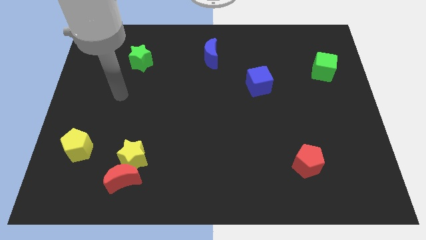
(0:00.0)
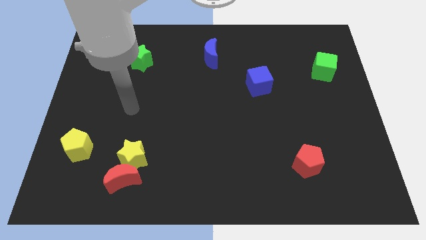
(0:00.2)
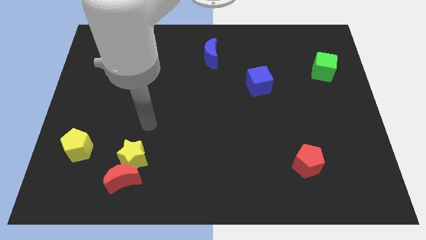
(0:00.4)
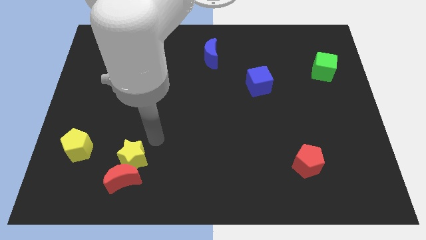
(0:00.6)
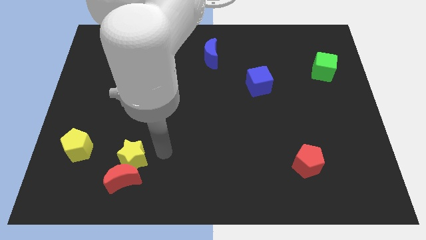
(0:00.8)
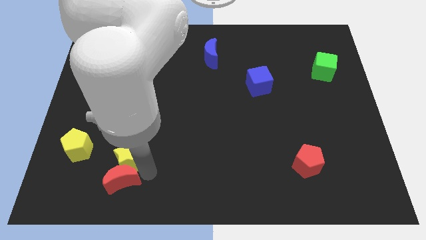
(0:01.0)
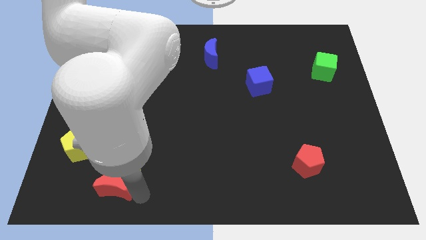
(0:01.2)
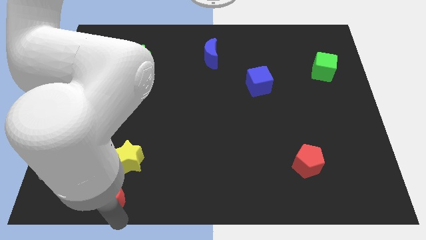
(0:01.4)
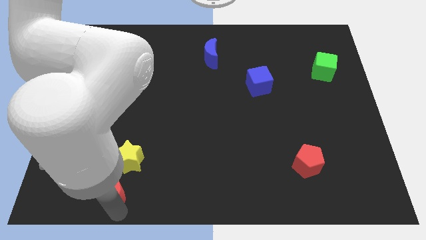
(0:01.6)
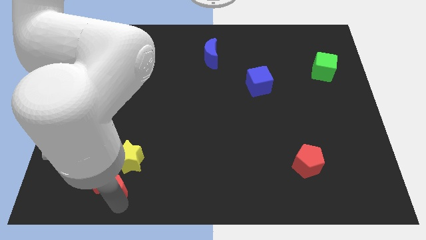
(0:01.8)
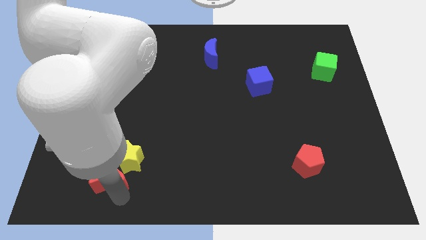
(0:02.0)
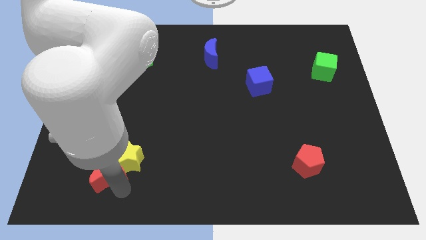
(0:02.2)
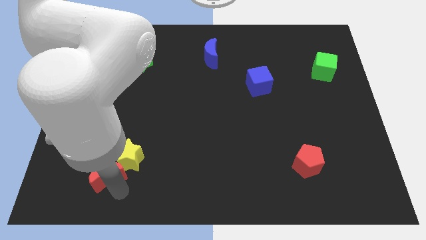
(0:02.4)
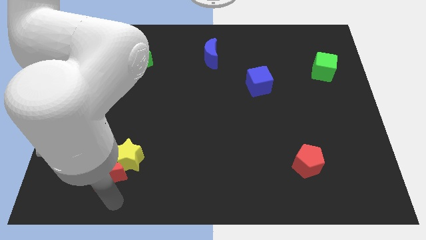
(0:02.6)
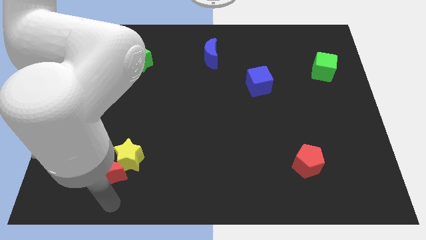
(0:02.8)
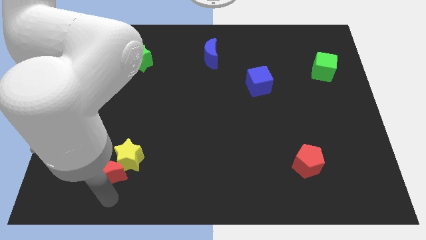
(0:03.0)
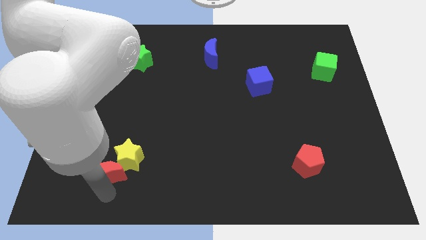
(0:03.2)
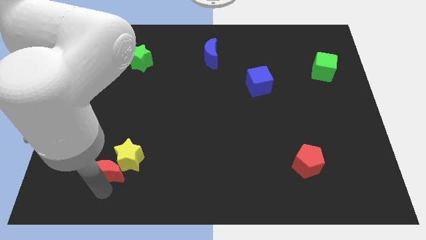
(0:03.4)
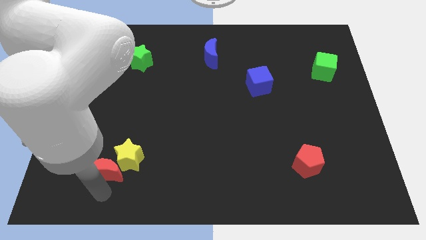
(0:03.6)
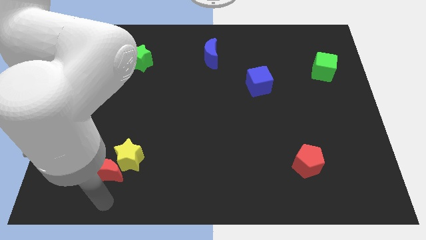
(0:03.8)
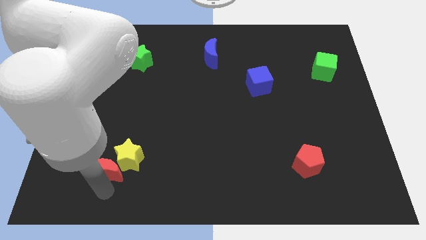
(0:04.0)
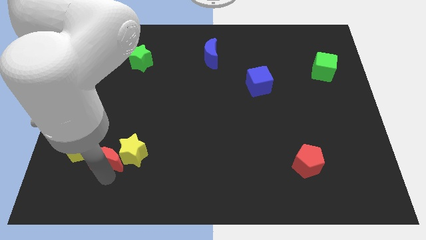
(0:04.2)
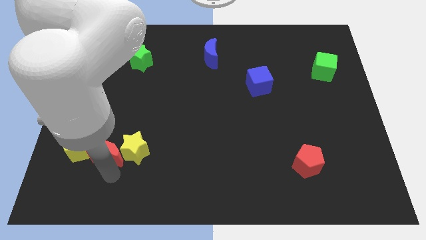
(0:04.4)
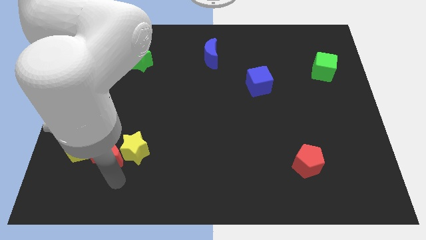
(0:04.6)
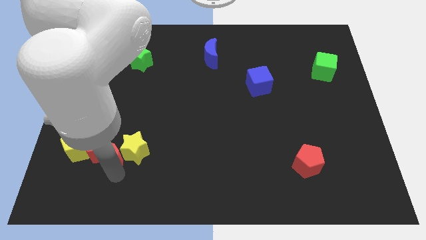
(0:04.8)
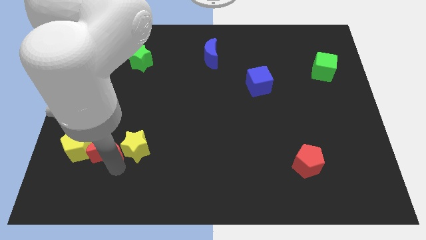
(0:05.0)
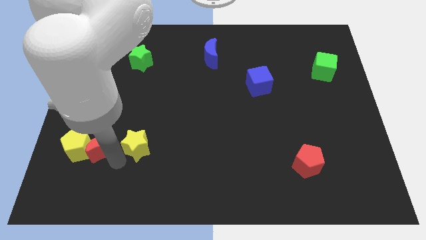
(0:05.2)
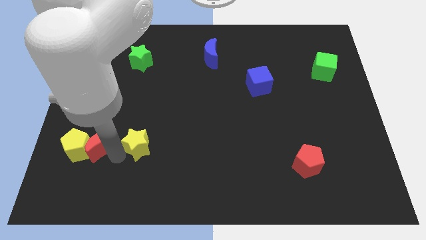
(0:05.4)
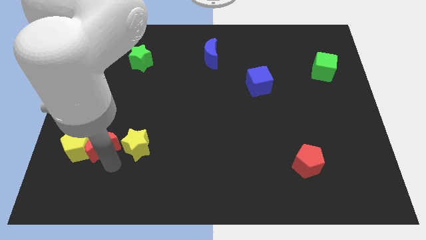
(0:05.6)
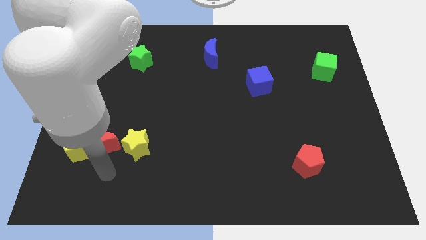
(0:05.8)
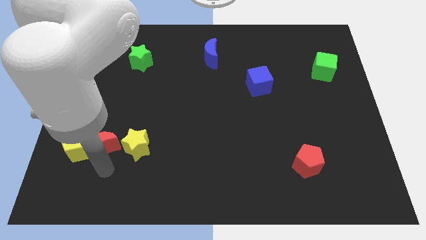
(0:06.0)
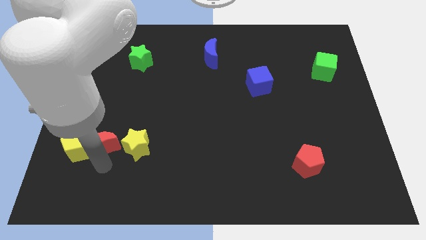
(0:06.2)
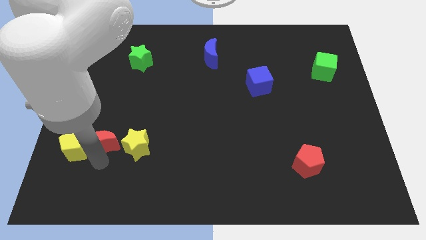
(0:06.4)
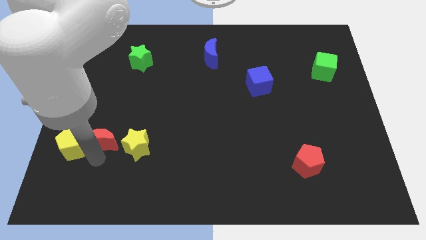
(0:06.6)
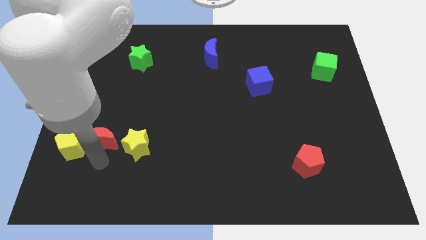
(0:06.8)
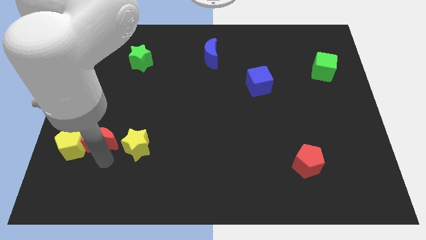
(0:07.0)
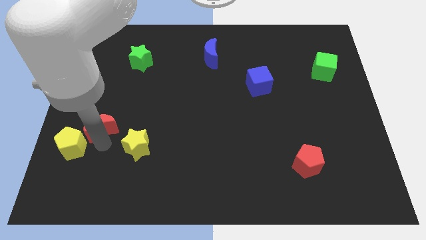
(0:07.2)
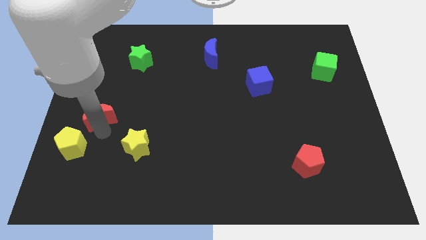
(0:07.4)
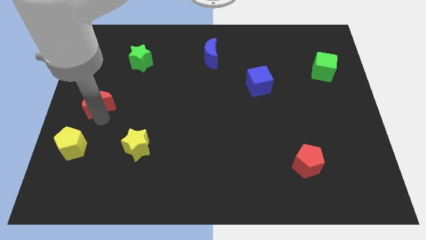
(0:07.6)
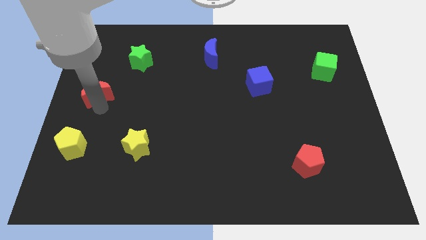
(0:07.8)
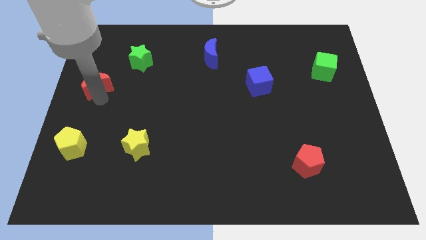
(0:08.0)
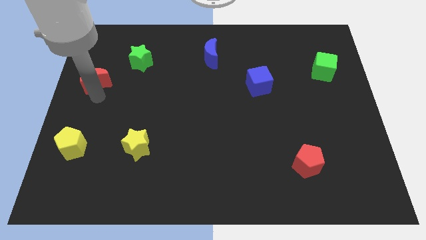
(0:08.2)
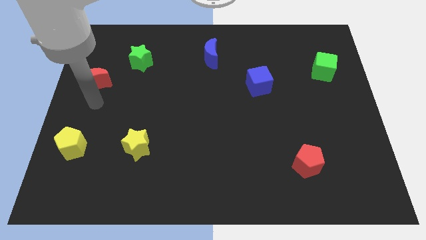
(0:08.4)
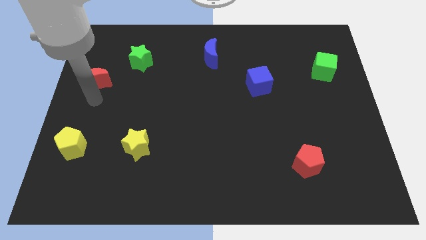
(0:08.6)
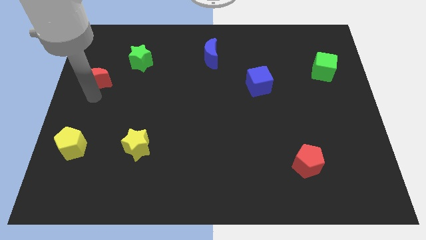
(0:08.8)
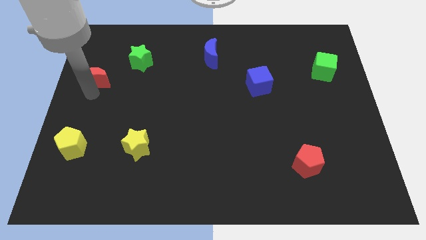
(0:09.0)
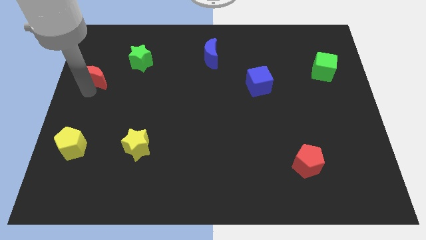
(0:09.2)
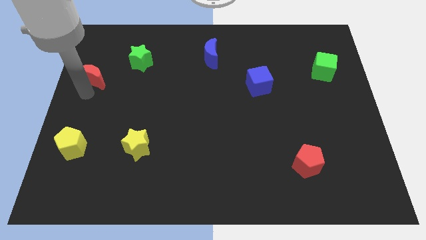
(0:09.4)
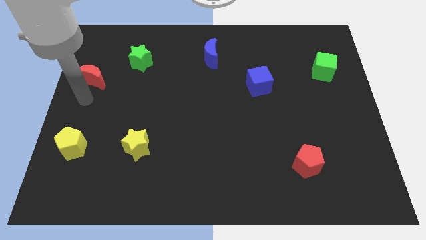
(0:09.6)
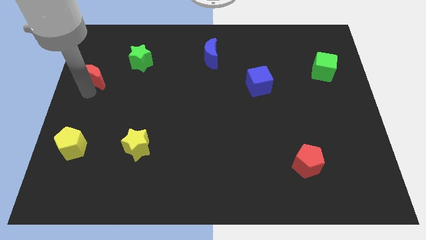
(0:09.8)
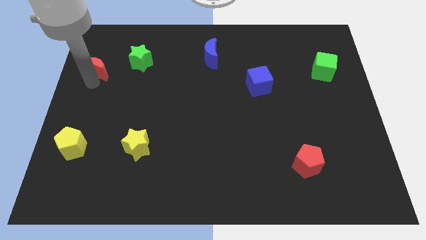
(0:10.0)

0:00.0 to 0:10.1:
push the red moon left of the green star
